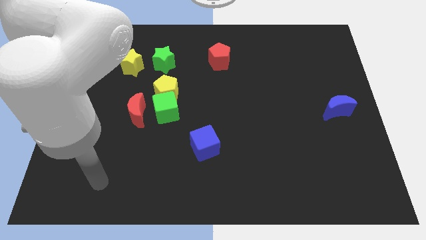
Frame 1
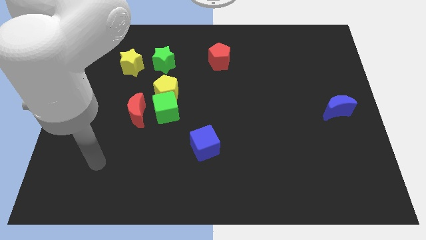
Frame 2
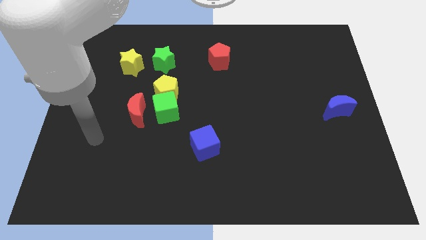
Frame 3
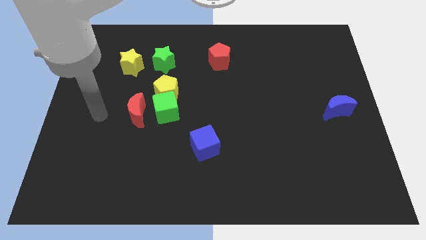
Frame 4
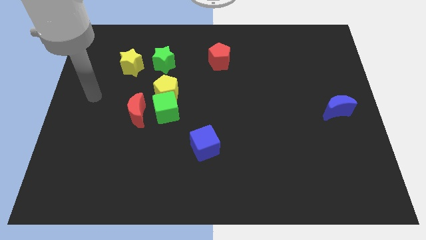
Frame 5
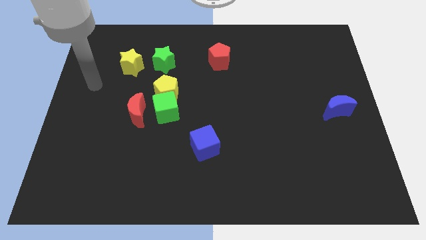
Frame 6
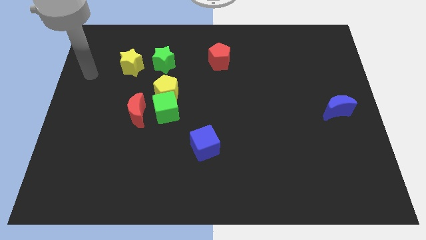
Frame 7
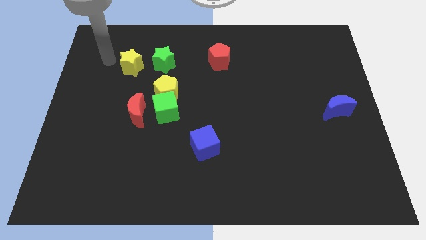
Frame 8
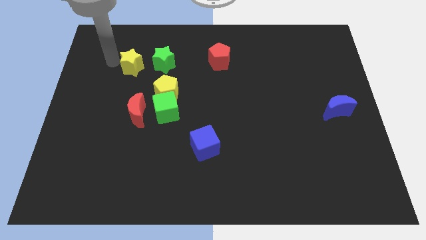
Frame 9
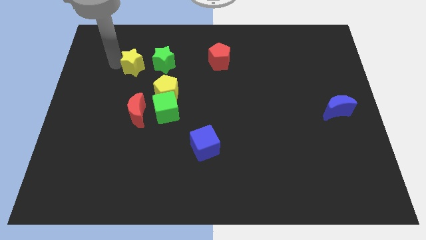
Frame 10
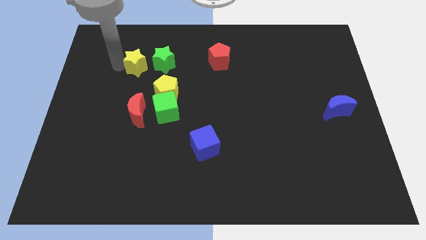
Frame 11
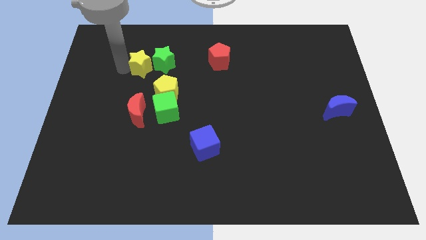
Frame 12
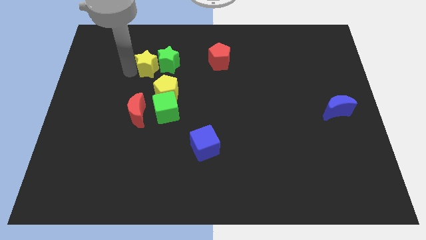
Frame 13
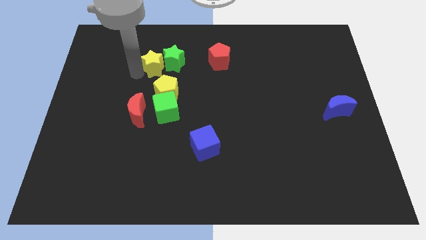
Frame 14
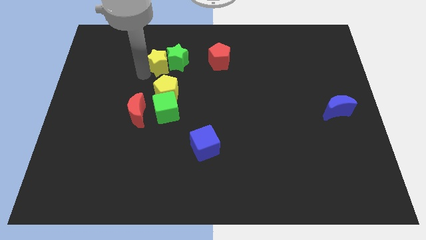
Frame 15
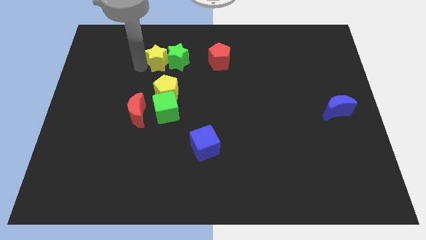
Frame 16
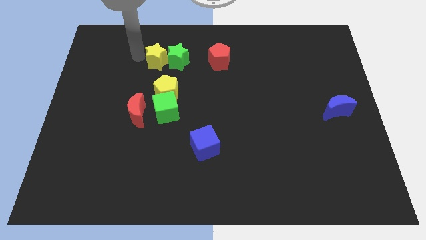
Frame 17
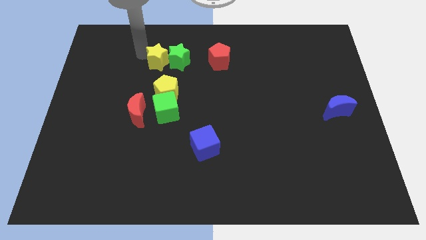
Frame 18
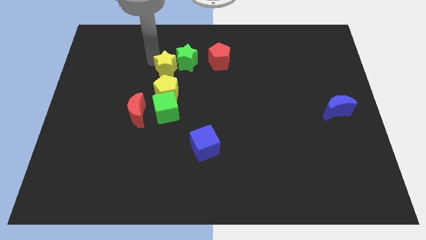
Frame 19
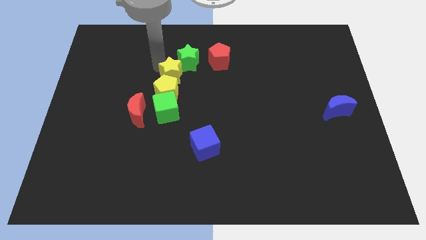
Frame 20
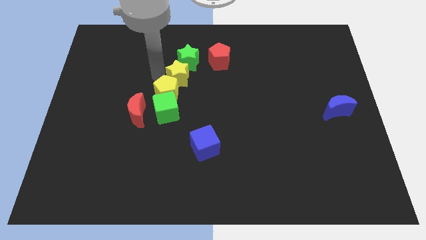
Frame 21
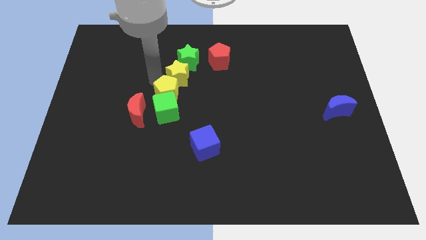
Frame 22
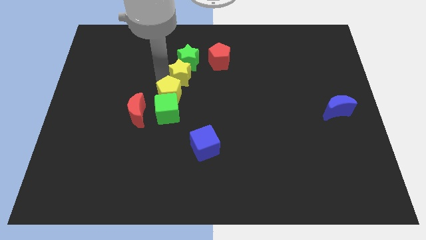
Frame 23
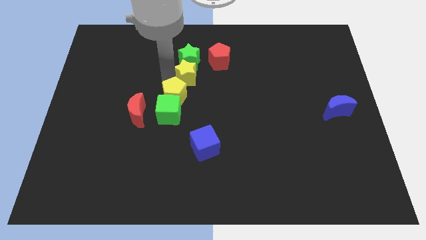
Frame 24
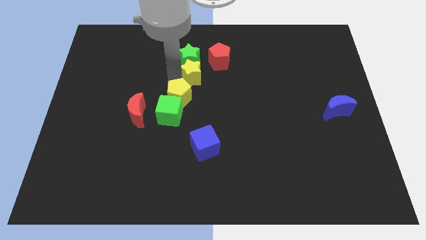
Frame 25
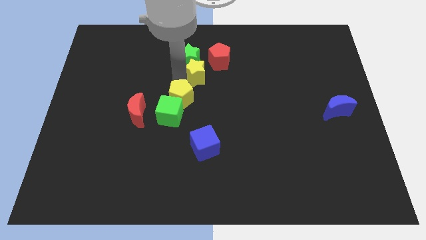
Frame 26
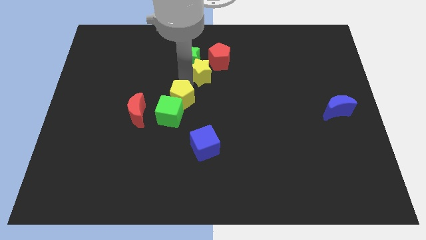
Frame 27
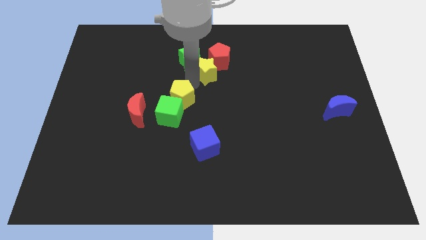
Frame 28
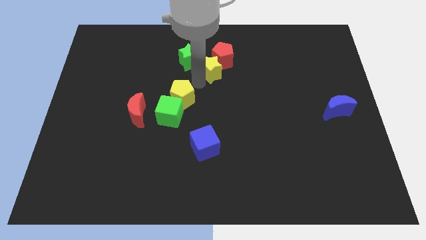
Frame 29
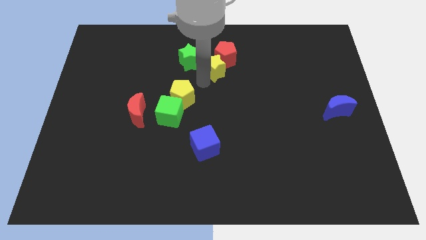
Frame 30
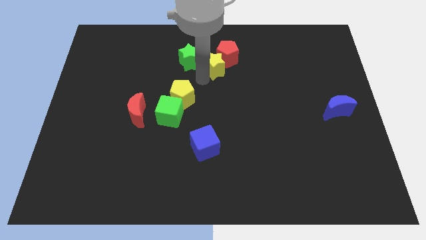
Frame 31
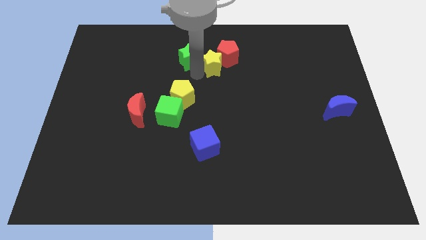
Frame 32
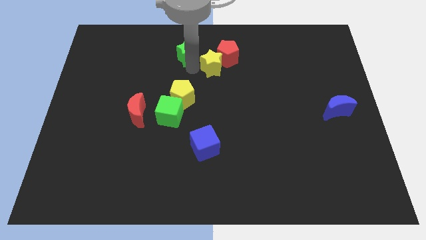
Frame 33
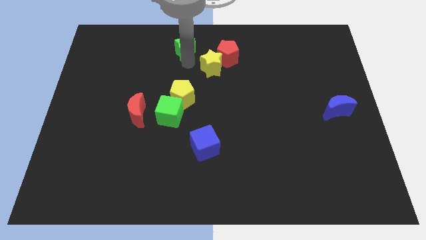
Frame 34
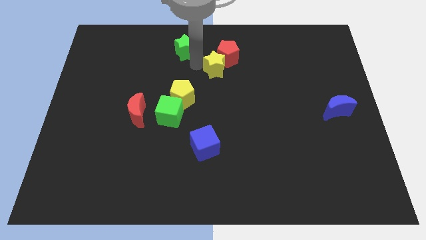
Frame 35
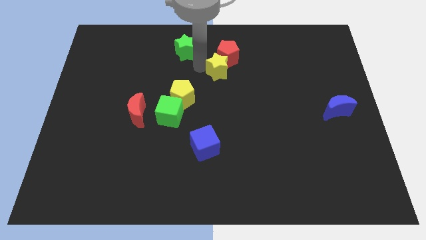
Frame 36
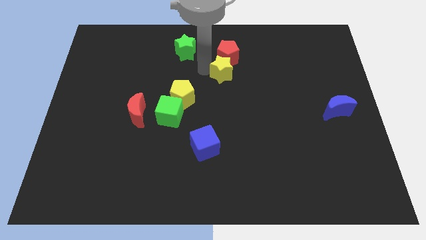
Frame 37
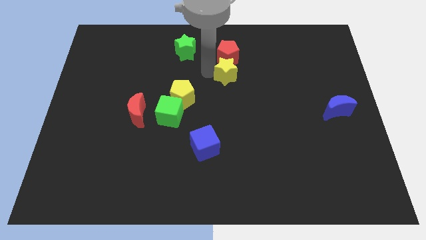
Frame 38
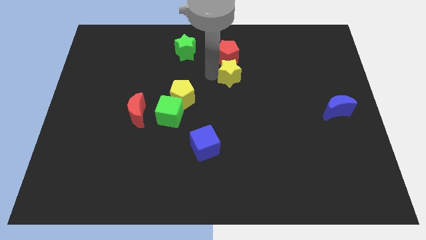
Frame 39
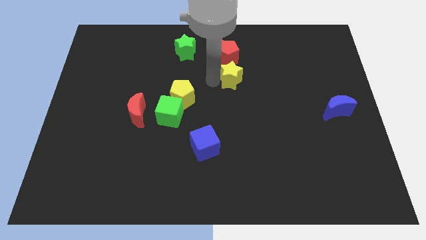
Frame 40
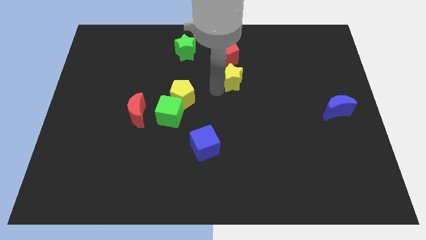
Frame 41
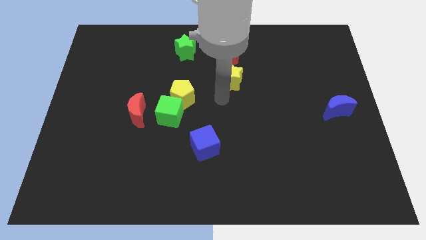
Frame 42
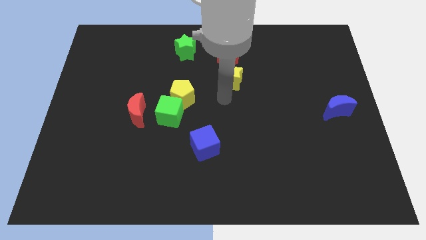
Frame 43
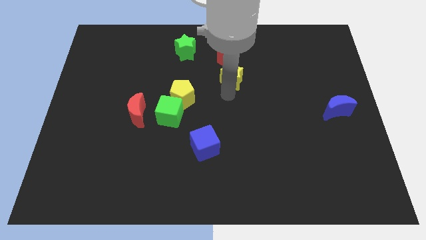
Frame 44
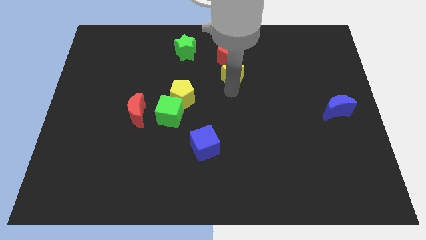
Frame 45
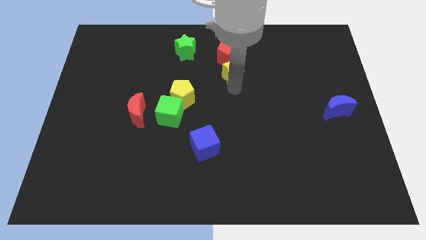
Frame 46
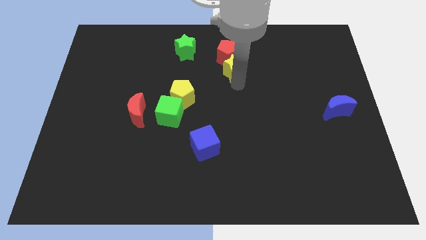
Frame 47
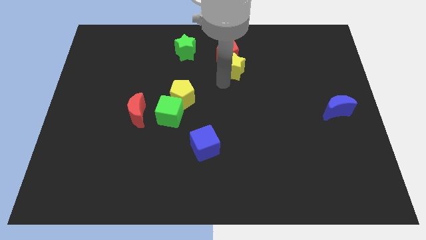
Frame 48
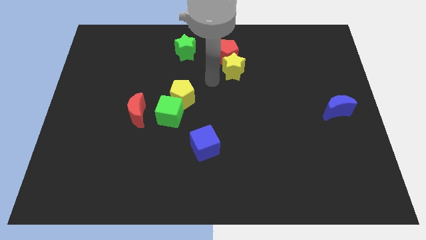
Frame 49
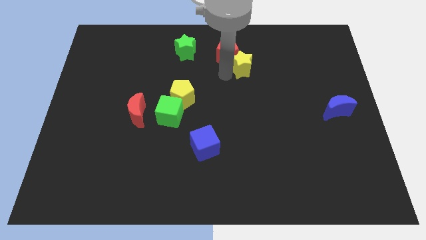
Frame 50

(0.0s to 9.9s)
move the yellow star just right of the red pentagon

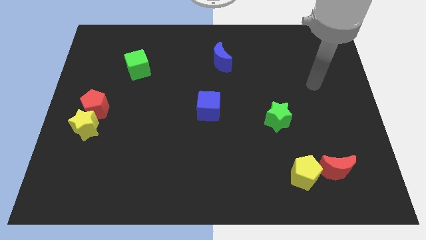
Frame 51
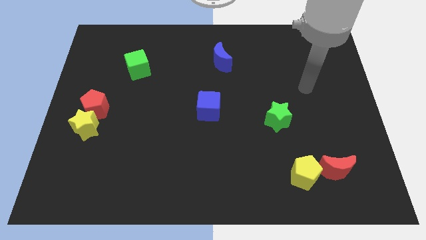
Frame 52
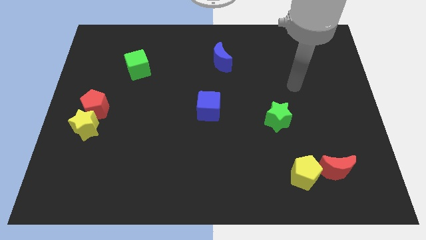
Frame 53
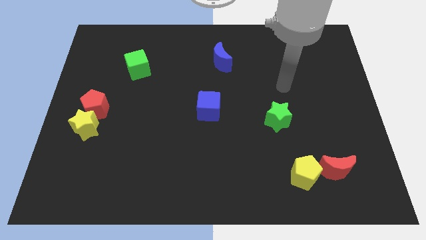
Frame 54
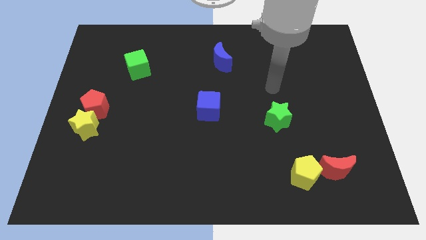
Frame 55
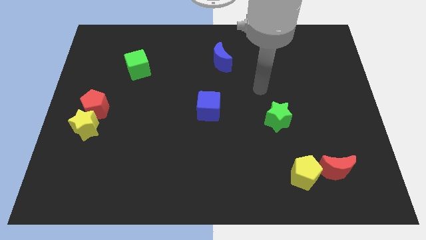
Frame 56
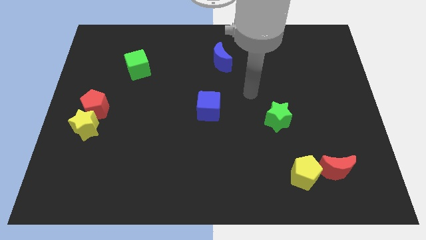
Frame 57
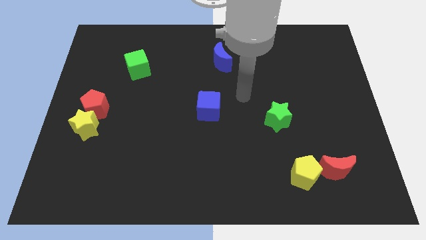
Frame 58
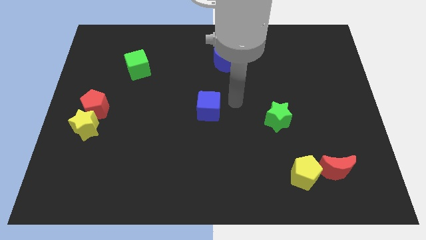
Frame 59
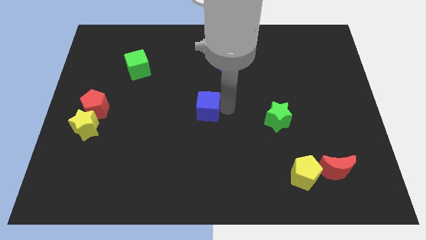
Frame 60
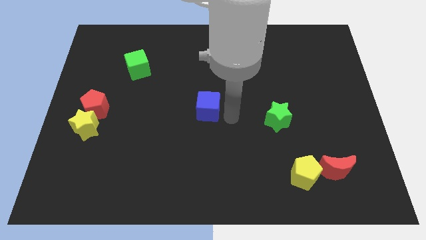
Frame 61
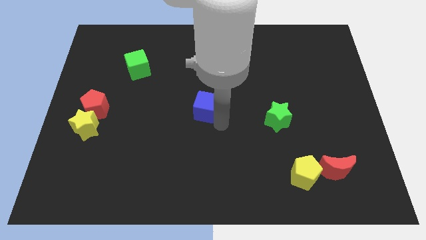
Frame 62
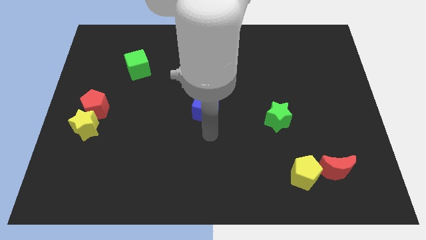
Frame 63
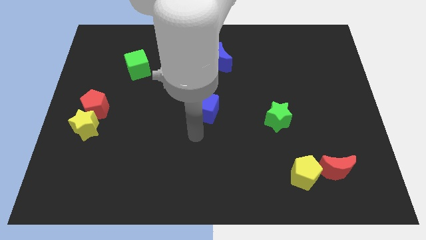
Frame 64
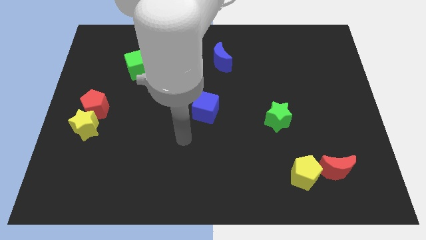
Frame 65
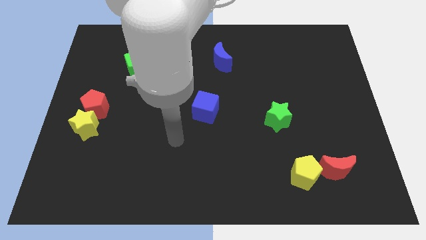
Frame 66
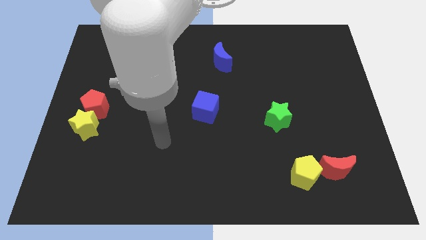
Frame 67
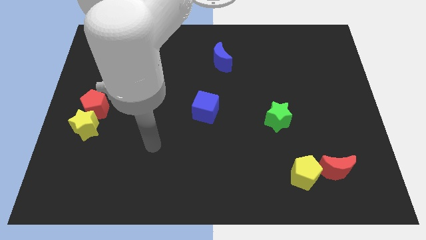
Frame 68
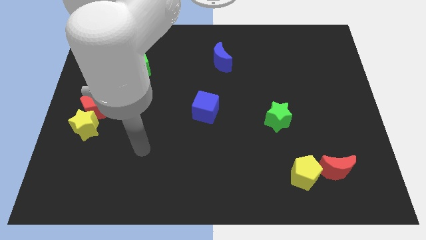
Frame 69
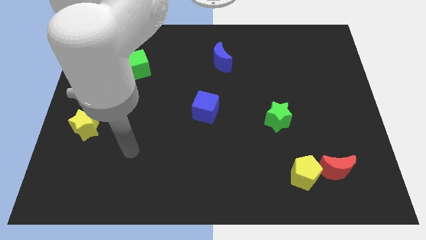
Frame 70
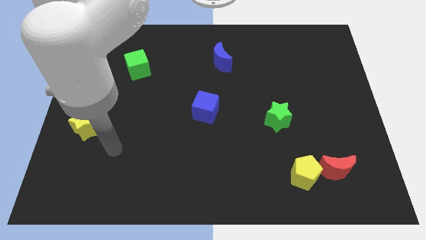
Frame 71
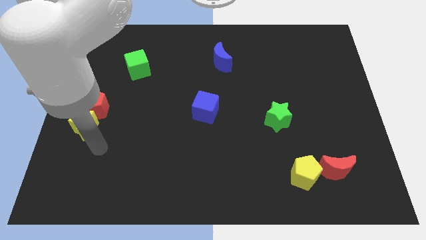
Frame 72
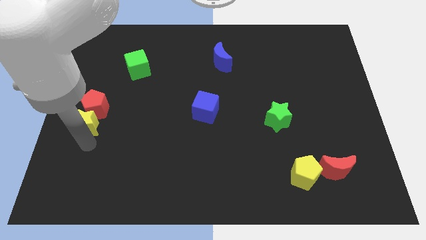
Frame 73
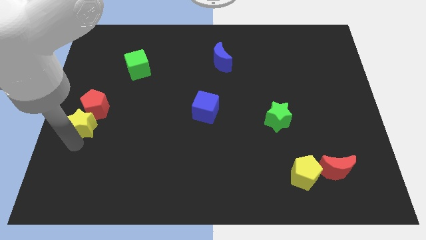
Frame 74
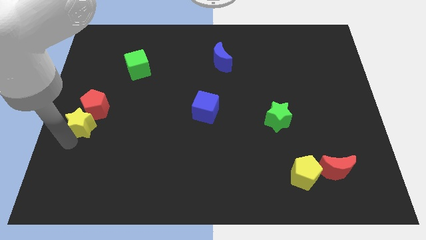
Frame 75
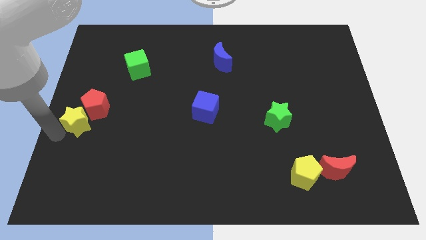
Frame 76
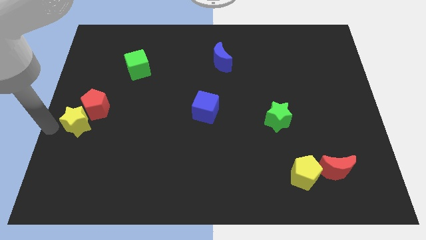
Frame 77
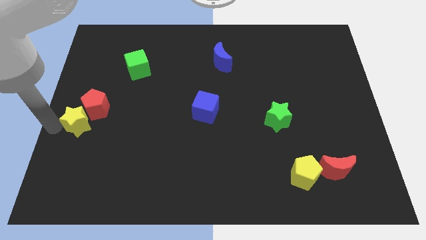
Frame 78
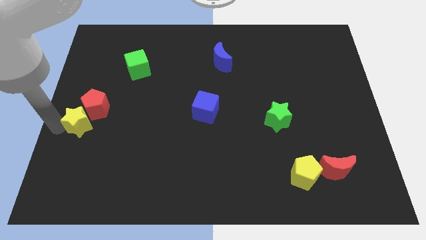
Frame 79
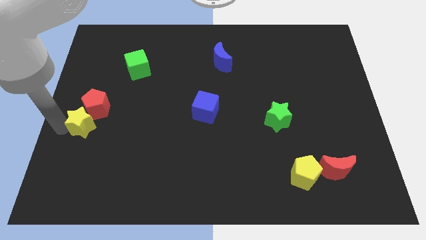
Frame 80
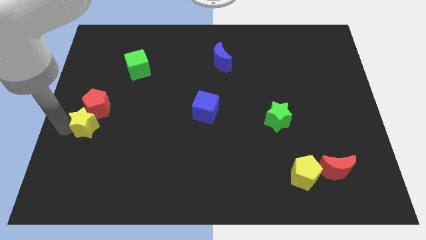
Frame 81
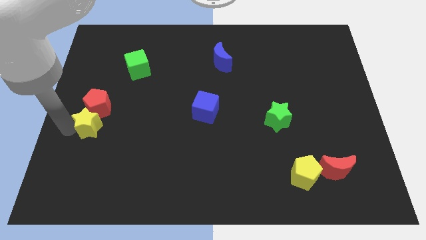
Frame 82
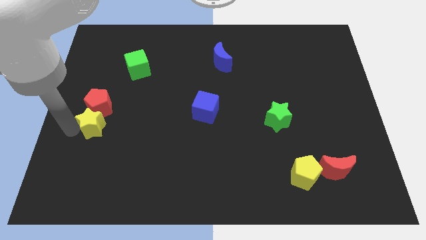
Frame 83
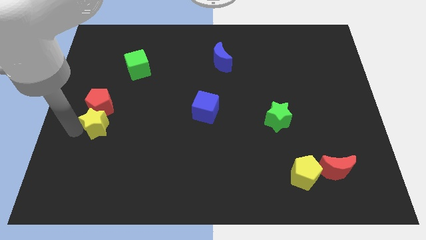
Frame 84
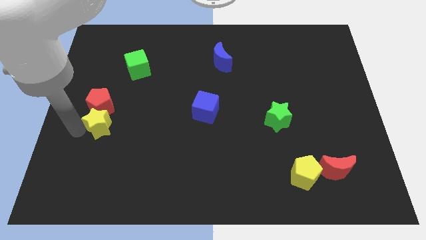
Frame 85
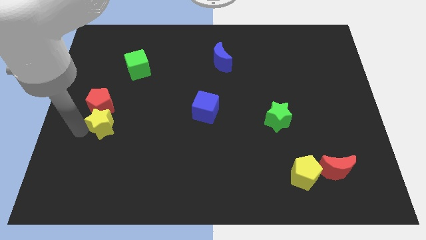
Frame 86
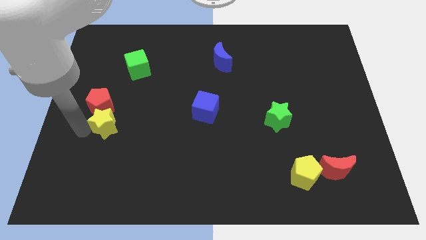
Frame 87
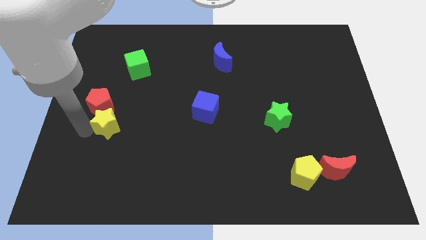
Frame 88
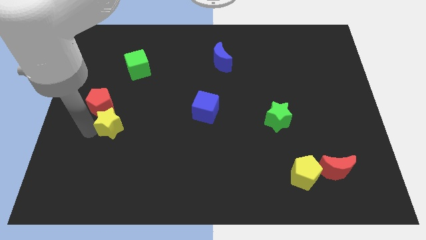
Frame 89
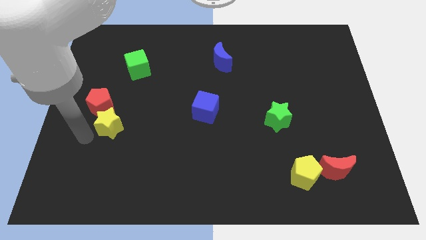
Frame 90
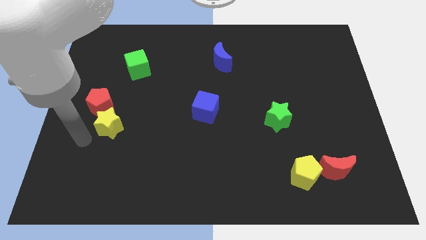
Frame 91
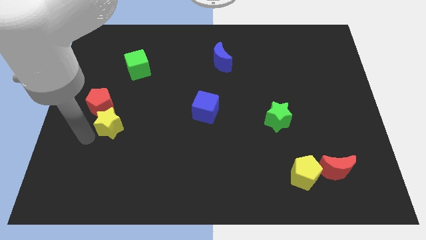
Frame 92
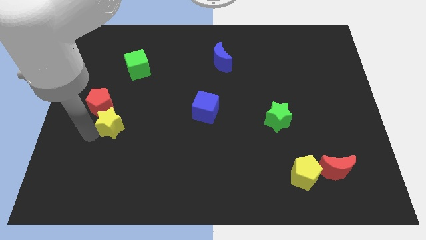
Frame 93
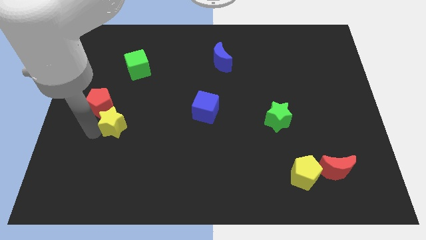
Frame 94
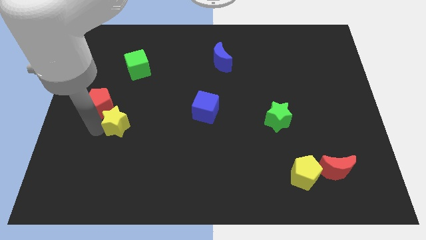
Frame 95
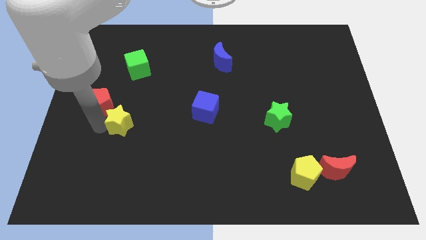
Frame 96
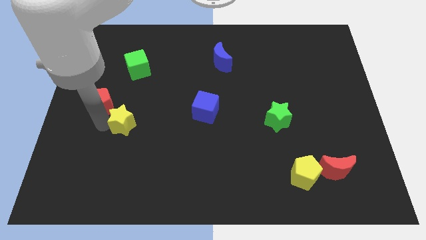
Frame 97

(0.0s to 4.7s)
move the yellow star to the right side of the red pentagon
